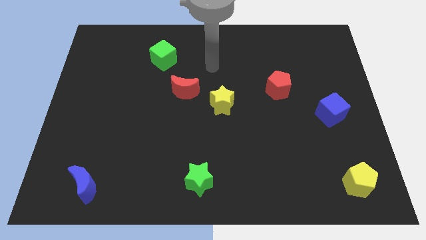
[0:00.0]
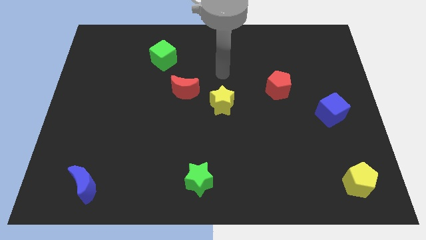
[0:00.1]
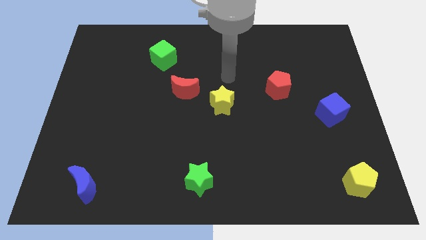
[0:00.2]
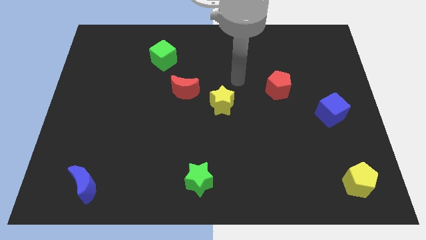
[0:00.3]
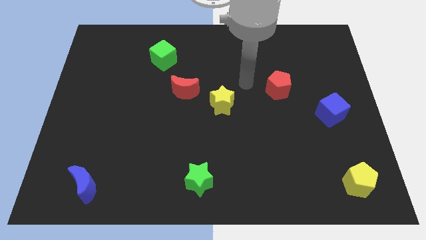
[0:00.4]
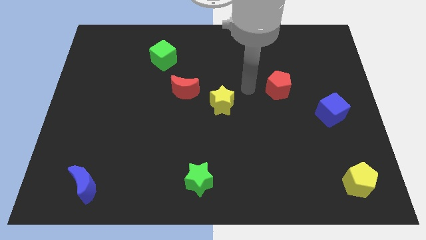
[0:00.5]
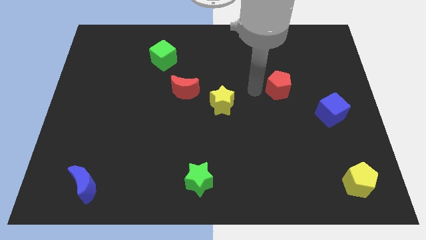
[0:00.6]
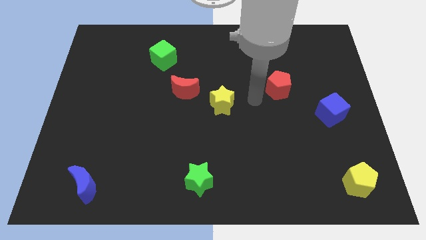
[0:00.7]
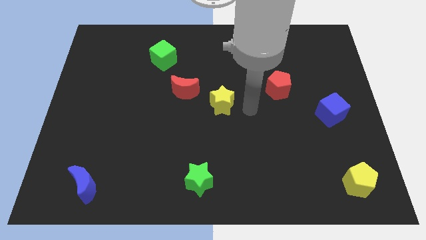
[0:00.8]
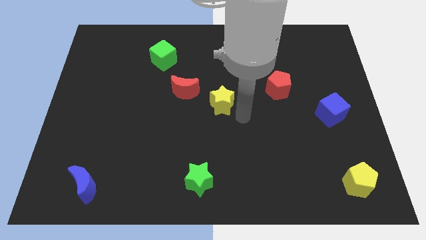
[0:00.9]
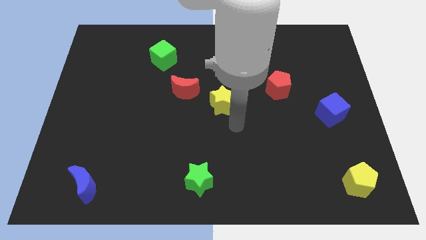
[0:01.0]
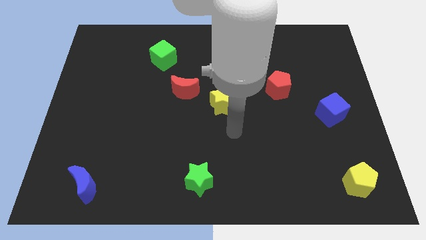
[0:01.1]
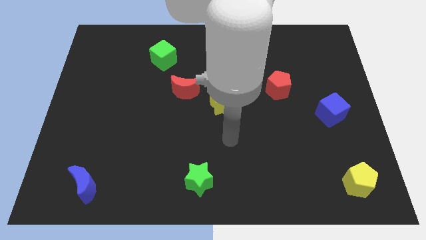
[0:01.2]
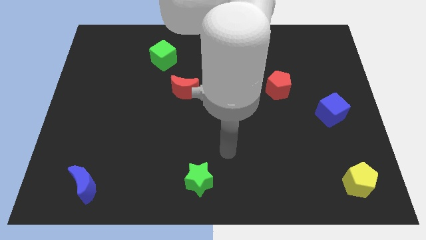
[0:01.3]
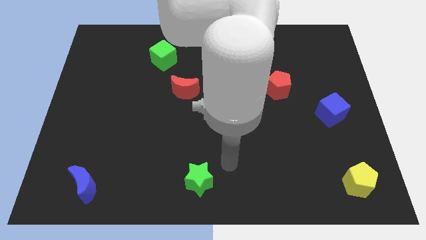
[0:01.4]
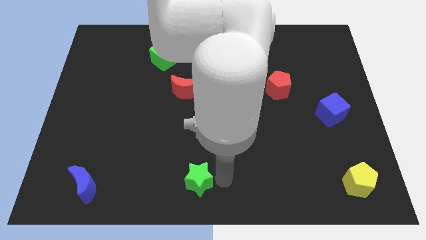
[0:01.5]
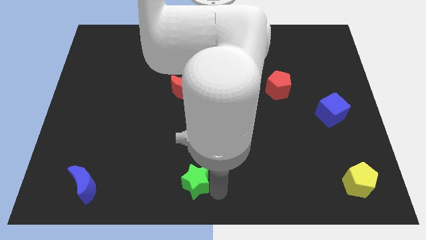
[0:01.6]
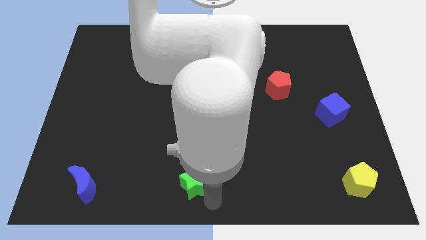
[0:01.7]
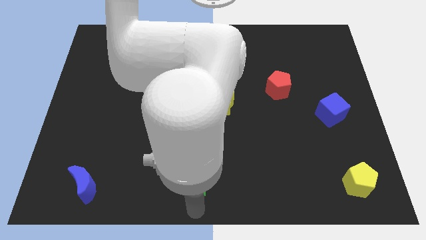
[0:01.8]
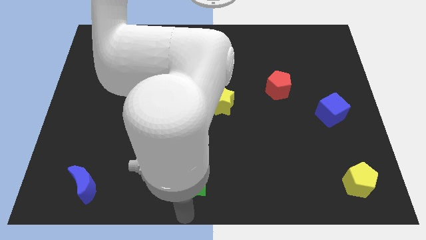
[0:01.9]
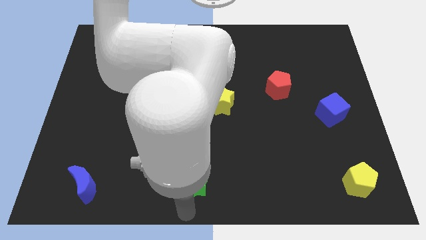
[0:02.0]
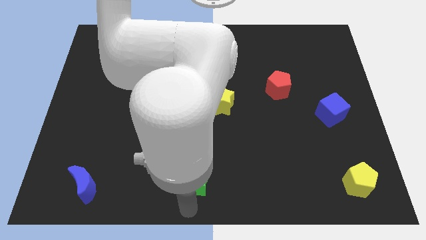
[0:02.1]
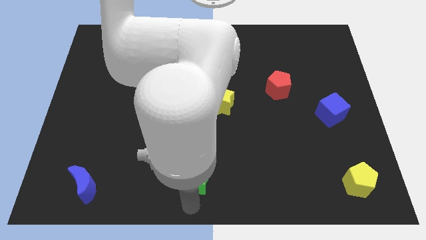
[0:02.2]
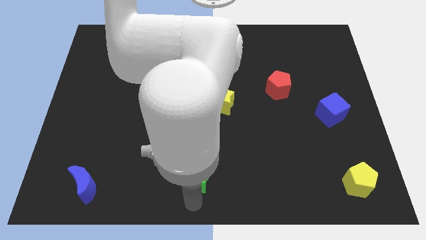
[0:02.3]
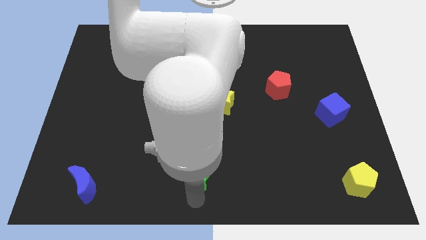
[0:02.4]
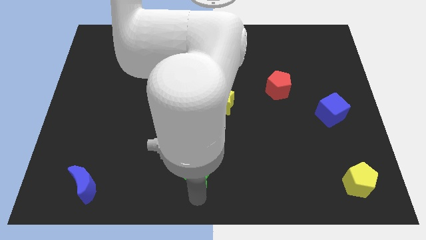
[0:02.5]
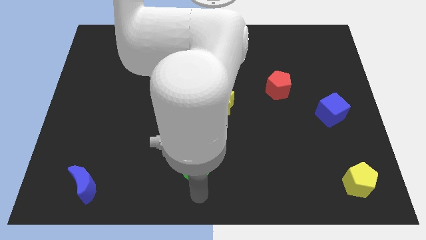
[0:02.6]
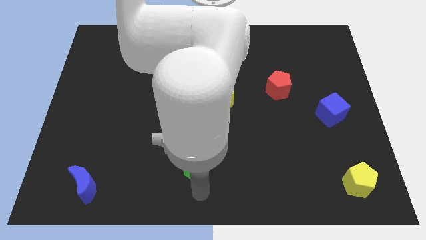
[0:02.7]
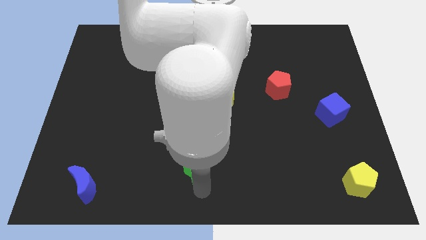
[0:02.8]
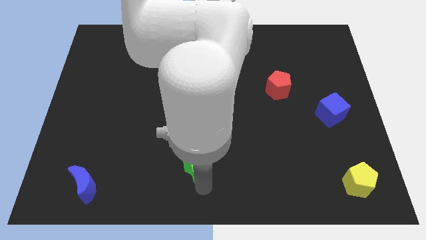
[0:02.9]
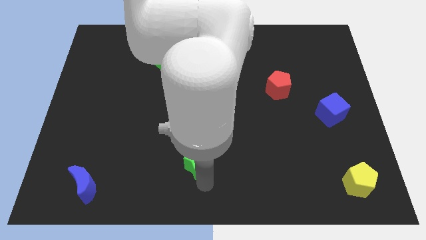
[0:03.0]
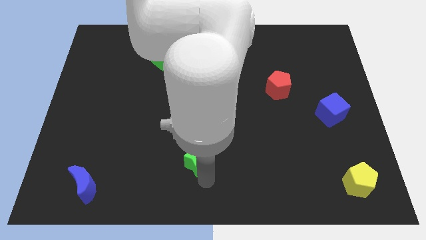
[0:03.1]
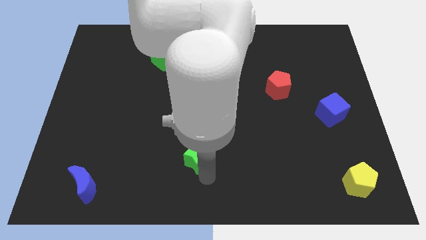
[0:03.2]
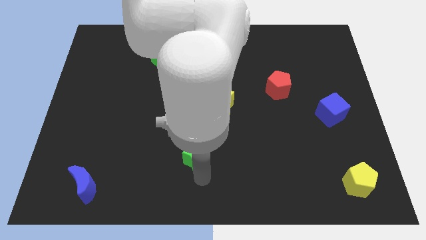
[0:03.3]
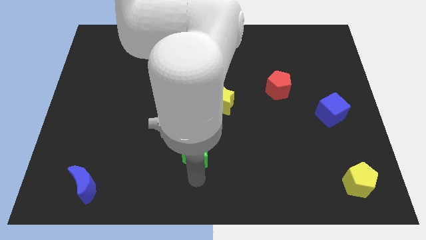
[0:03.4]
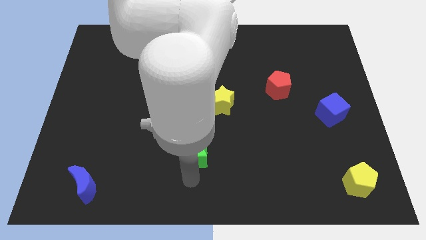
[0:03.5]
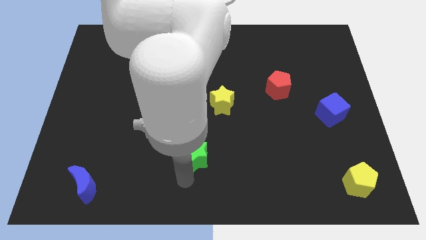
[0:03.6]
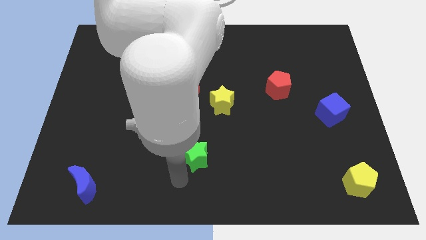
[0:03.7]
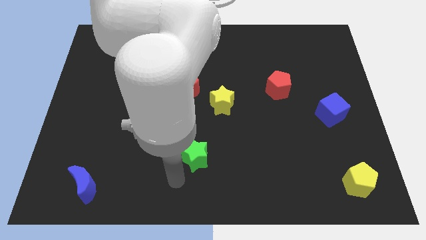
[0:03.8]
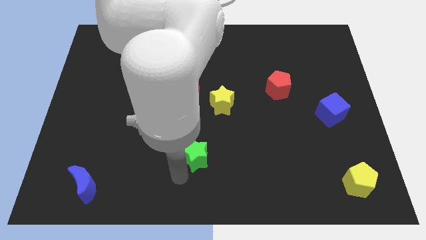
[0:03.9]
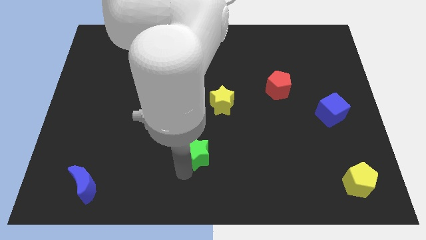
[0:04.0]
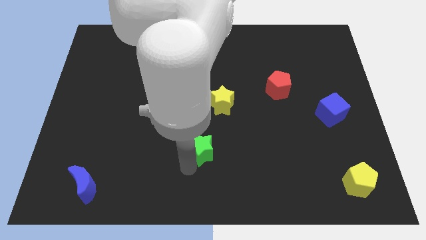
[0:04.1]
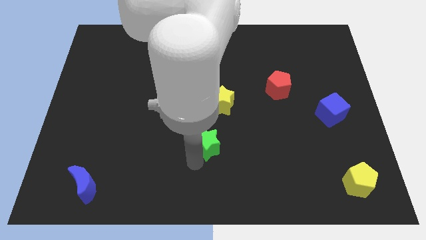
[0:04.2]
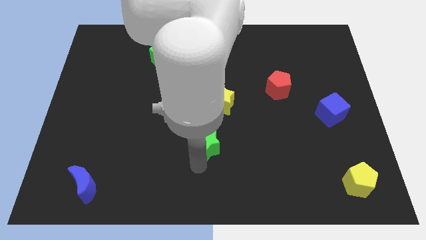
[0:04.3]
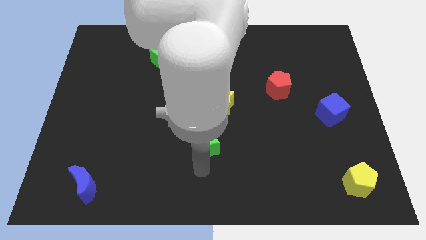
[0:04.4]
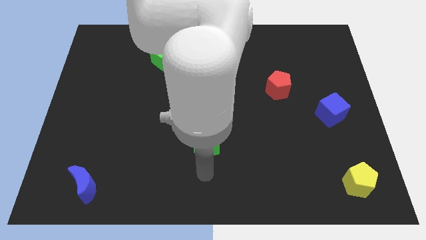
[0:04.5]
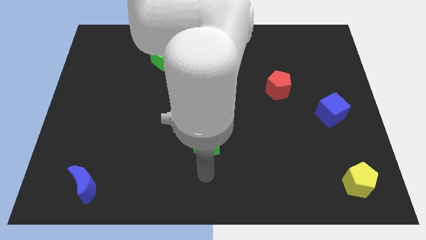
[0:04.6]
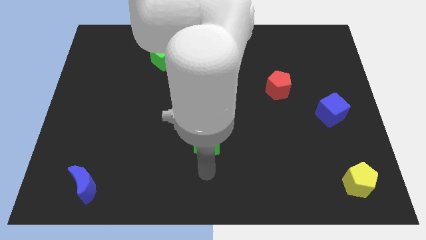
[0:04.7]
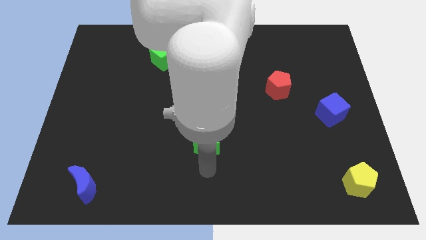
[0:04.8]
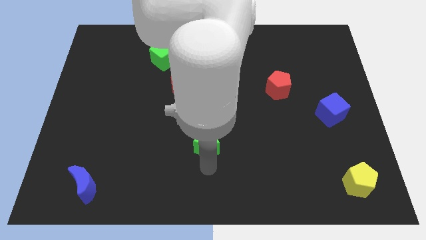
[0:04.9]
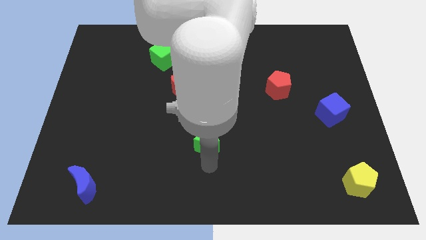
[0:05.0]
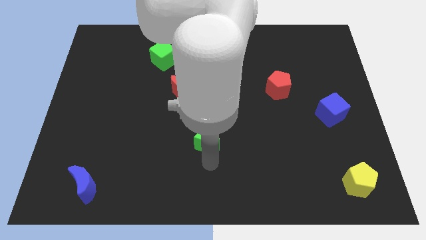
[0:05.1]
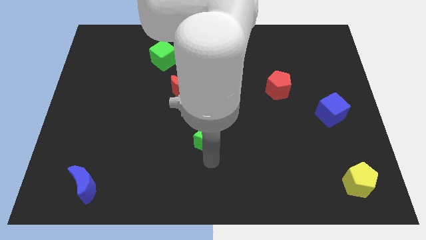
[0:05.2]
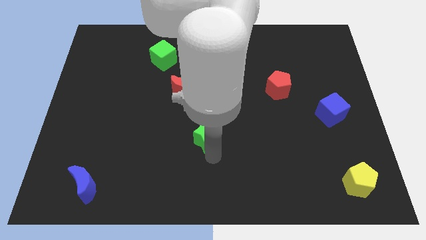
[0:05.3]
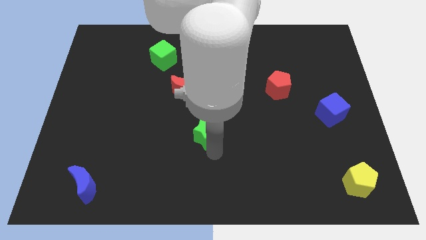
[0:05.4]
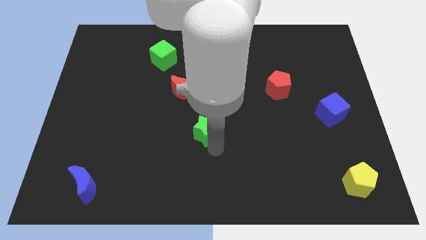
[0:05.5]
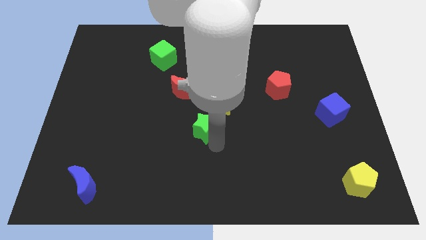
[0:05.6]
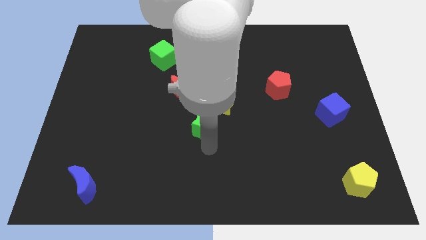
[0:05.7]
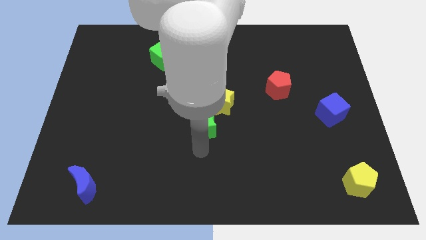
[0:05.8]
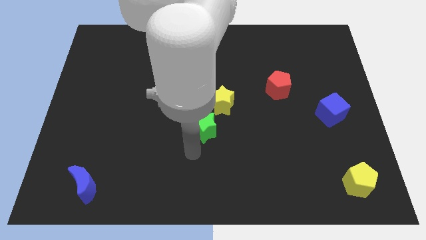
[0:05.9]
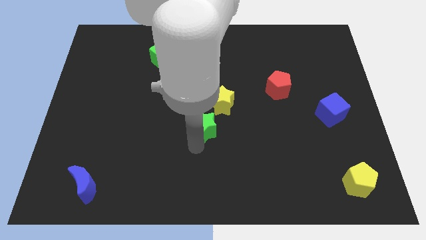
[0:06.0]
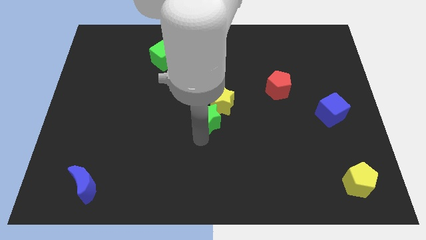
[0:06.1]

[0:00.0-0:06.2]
slide the green star to the yellow star
